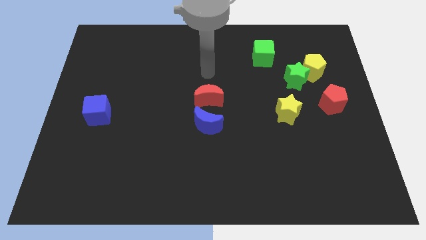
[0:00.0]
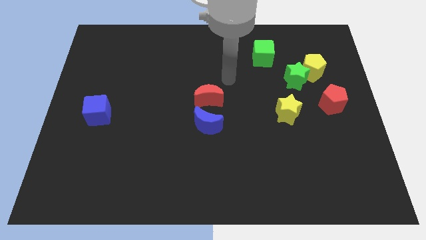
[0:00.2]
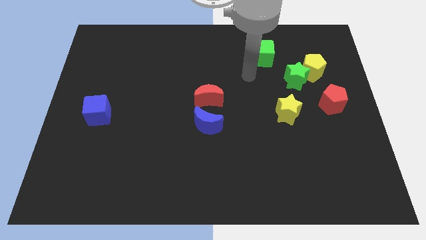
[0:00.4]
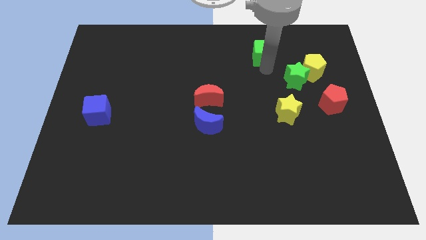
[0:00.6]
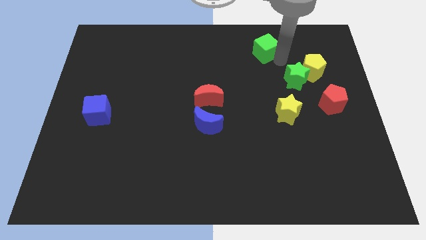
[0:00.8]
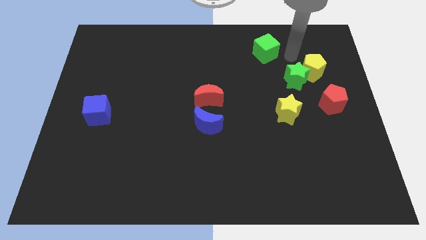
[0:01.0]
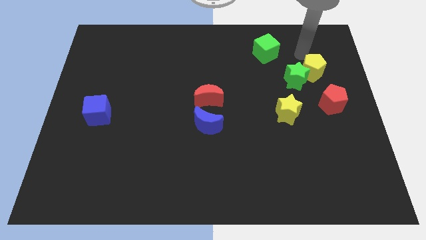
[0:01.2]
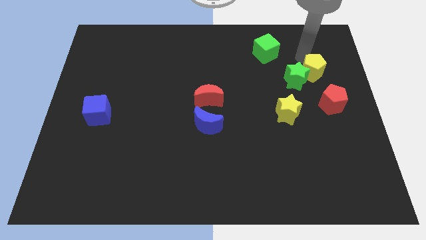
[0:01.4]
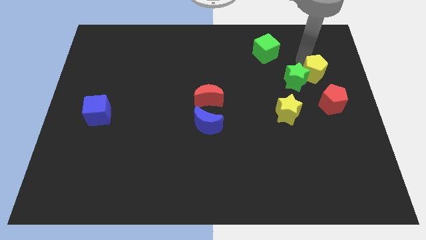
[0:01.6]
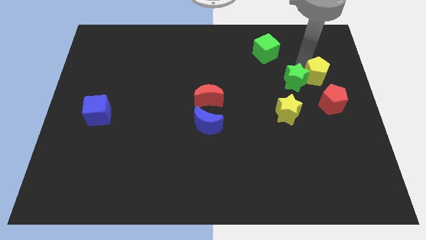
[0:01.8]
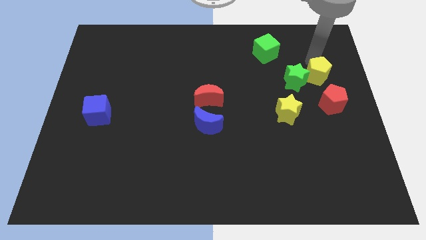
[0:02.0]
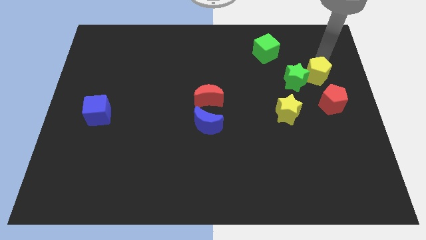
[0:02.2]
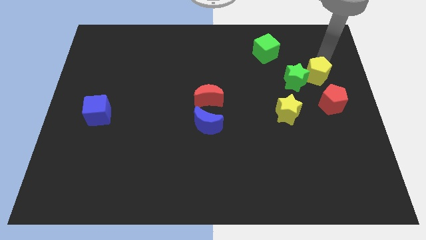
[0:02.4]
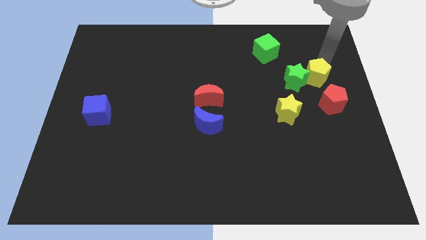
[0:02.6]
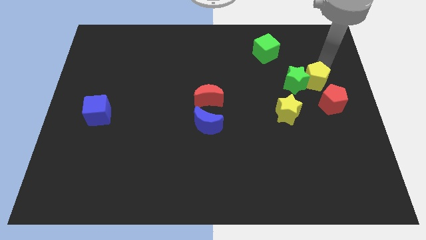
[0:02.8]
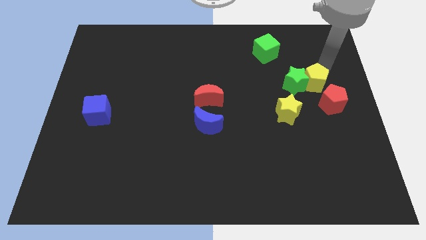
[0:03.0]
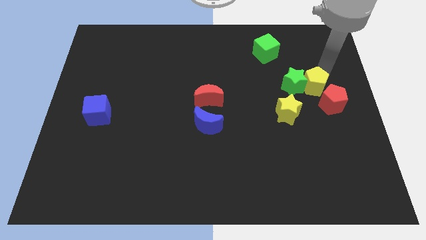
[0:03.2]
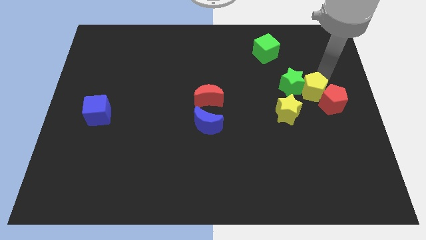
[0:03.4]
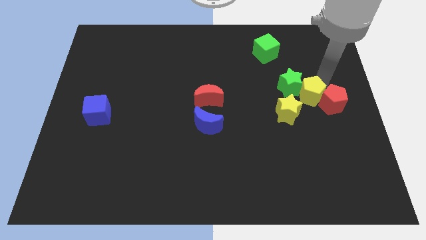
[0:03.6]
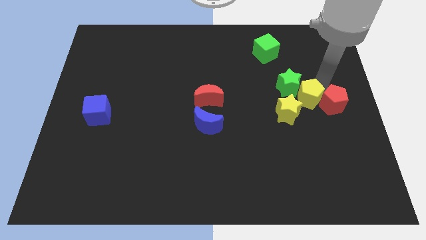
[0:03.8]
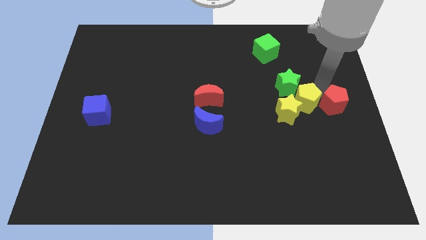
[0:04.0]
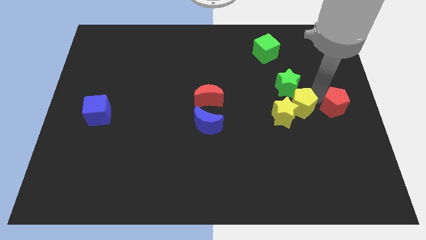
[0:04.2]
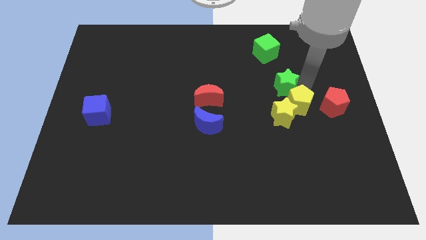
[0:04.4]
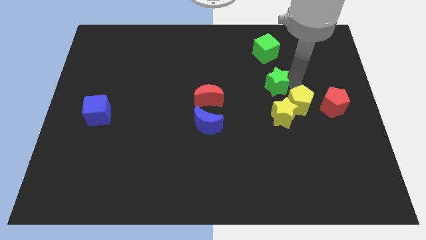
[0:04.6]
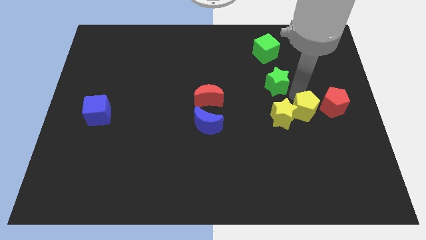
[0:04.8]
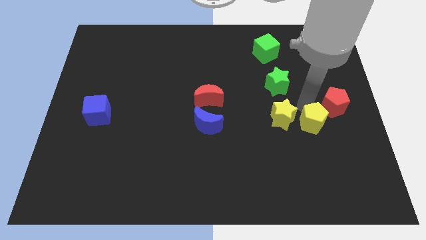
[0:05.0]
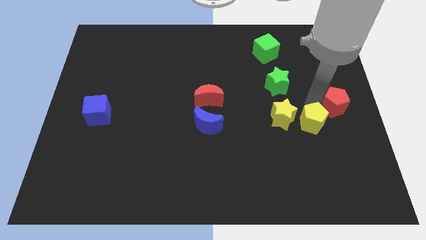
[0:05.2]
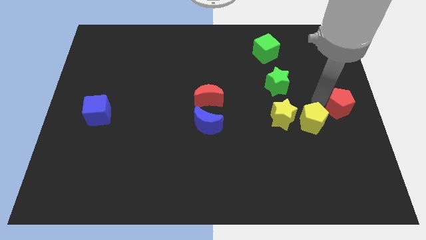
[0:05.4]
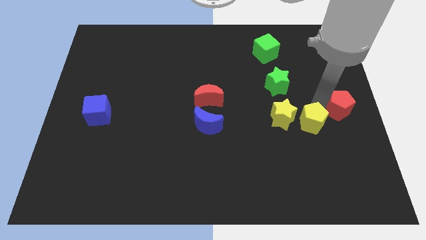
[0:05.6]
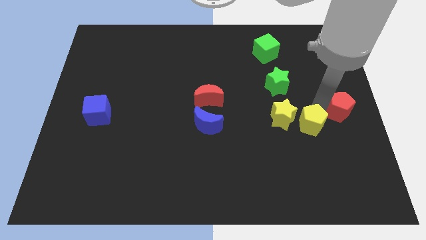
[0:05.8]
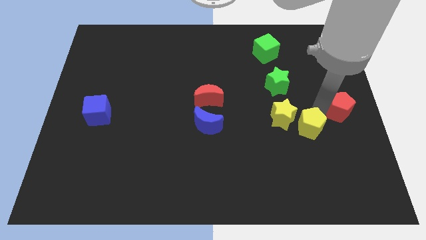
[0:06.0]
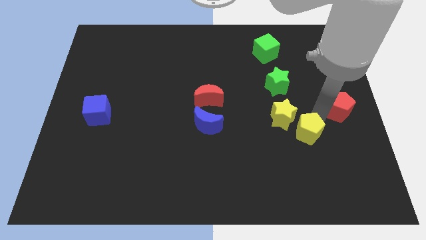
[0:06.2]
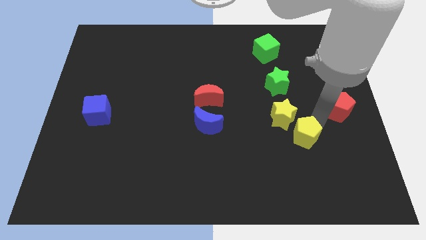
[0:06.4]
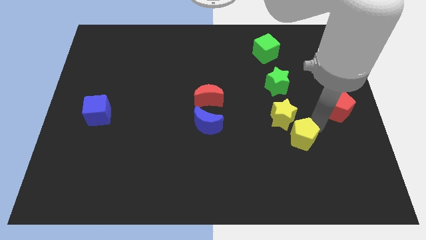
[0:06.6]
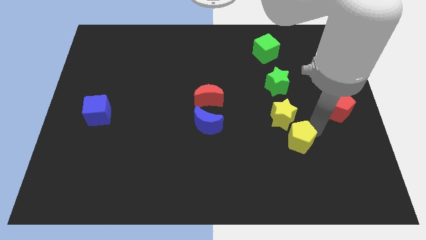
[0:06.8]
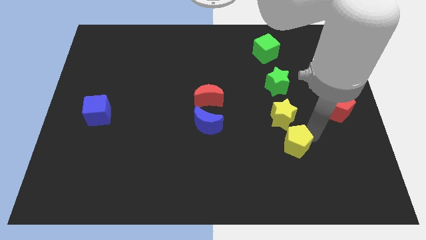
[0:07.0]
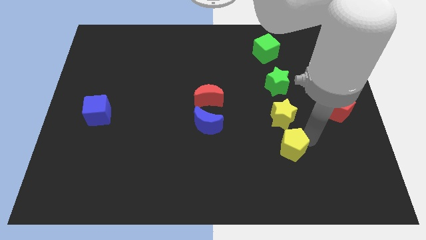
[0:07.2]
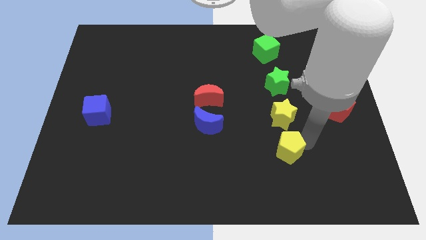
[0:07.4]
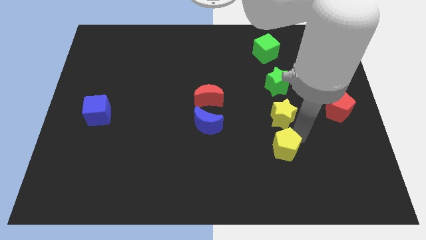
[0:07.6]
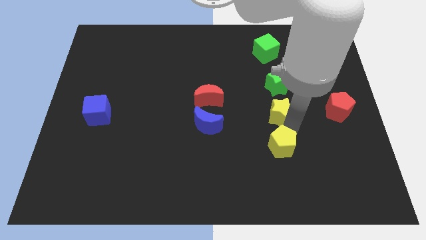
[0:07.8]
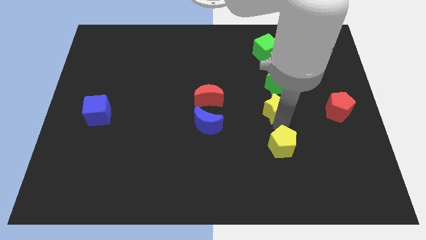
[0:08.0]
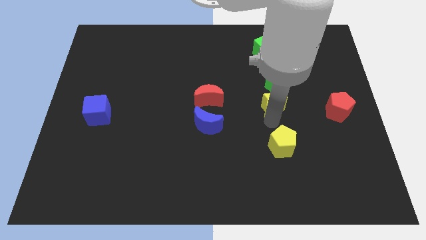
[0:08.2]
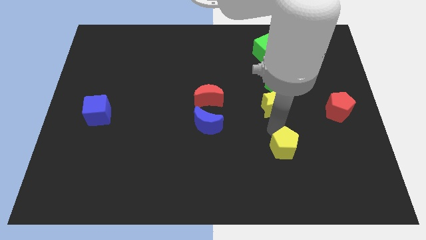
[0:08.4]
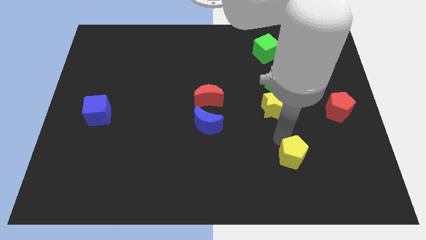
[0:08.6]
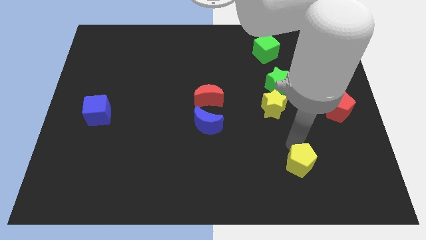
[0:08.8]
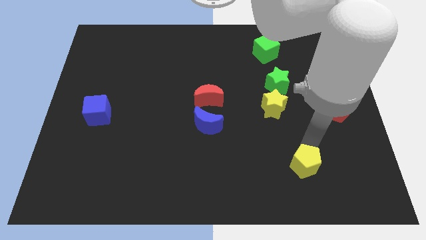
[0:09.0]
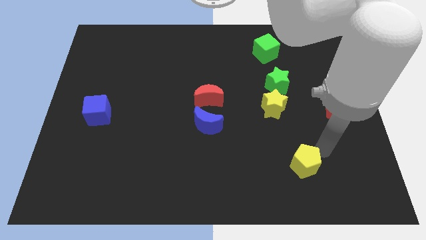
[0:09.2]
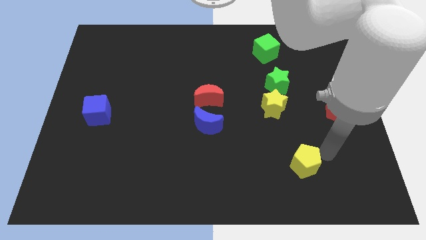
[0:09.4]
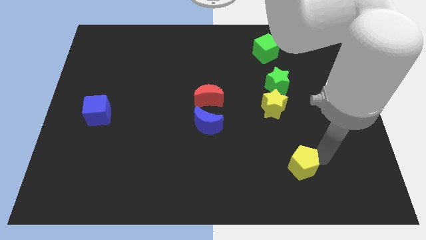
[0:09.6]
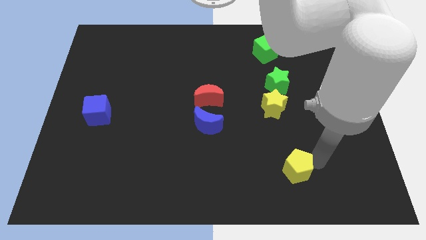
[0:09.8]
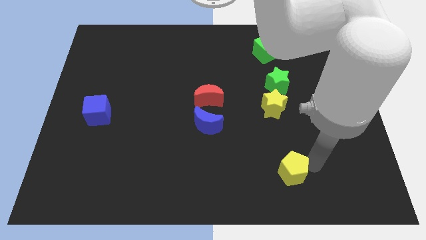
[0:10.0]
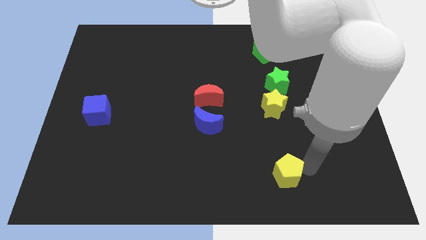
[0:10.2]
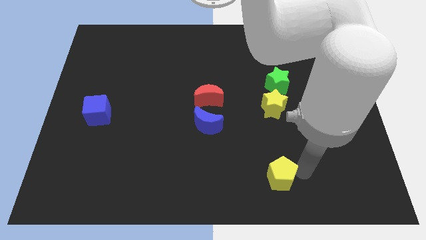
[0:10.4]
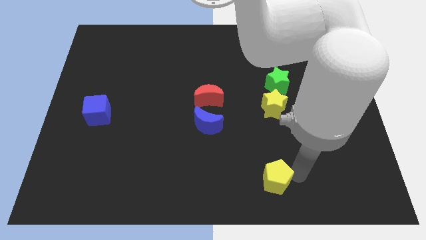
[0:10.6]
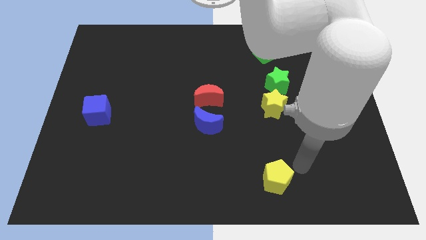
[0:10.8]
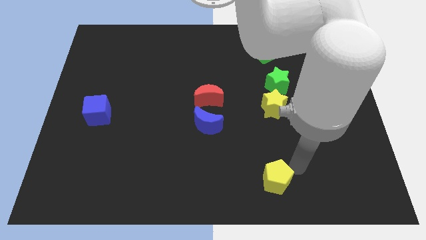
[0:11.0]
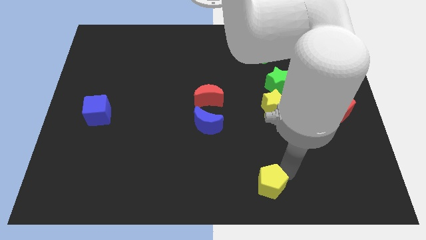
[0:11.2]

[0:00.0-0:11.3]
slide the yellow pentagon to the bottom

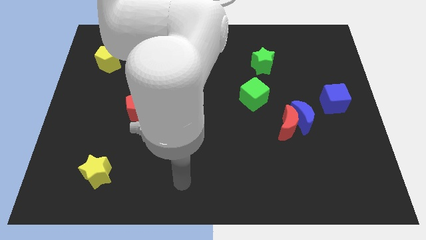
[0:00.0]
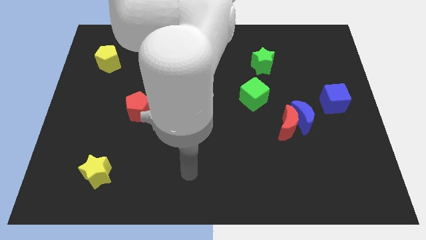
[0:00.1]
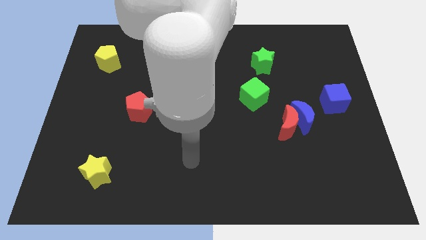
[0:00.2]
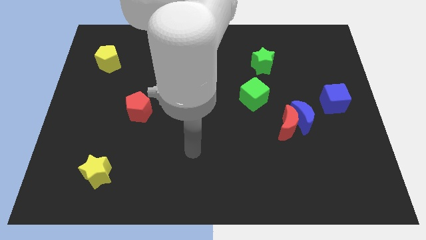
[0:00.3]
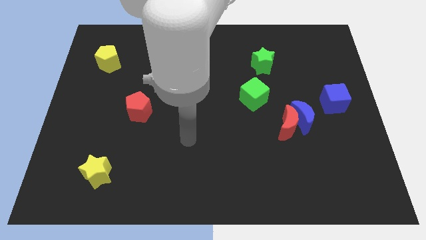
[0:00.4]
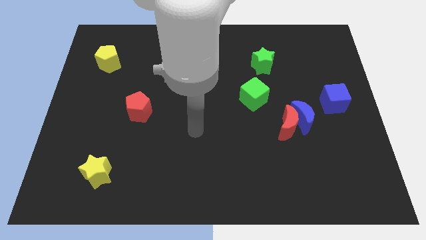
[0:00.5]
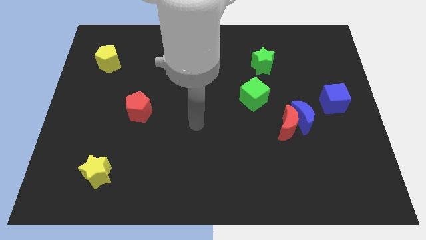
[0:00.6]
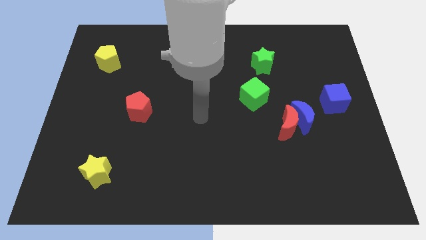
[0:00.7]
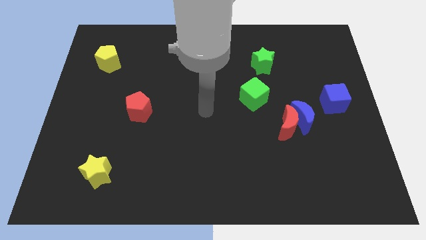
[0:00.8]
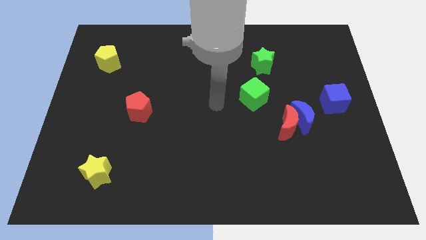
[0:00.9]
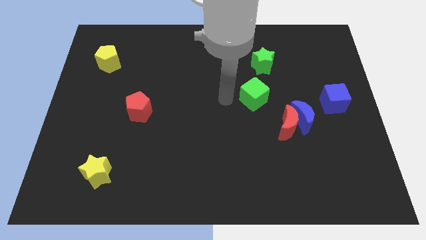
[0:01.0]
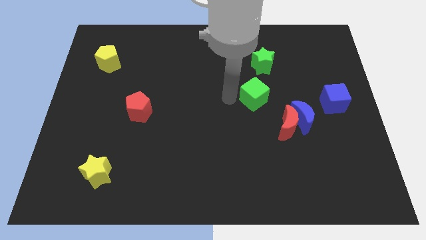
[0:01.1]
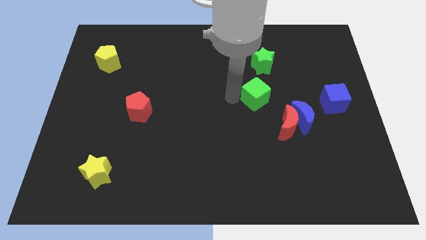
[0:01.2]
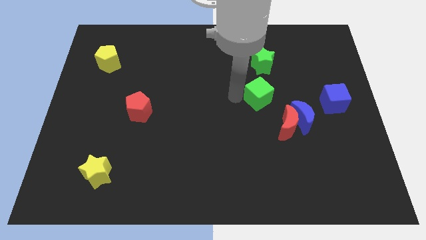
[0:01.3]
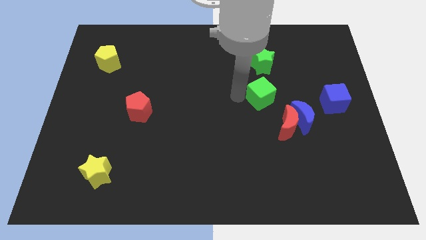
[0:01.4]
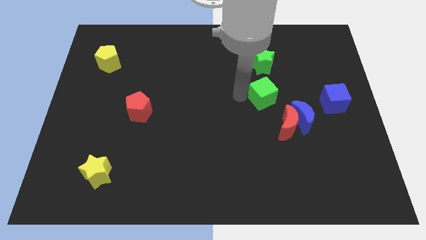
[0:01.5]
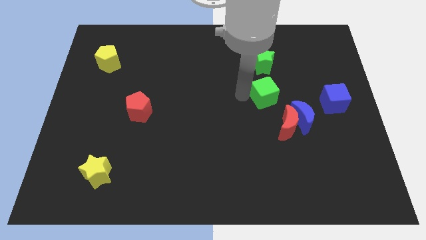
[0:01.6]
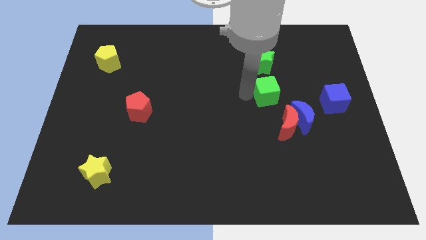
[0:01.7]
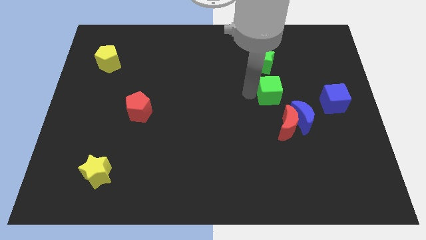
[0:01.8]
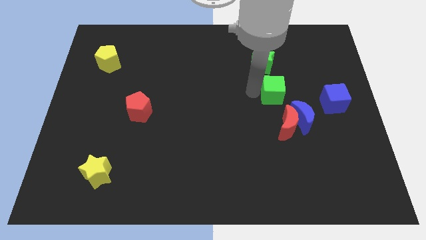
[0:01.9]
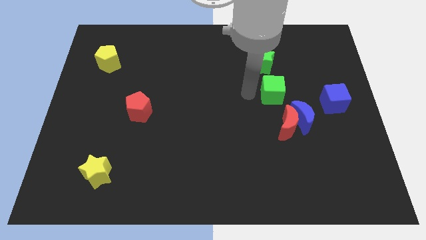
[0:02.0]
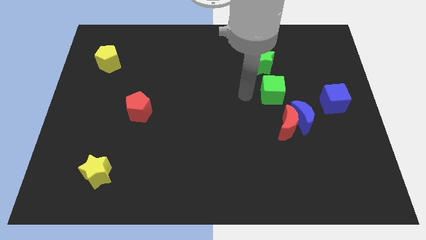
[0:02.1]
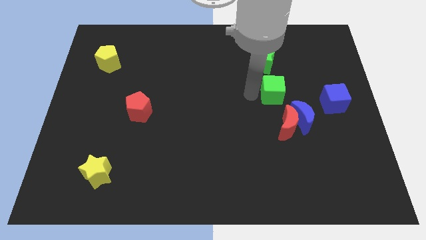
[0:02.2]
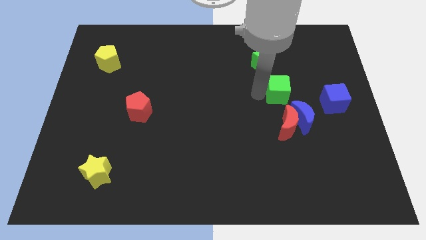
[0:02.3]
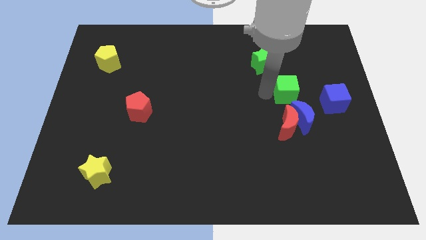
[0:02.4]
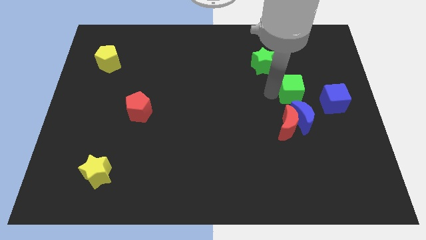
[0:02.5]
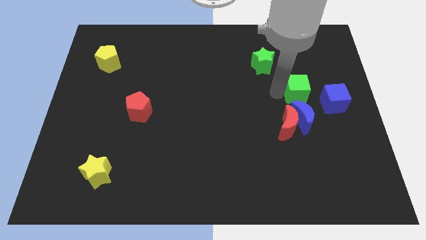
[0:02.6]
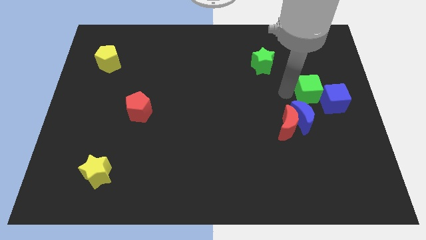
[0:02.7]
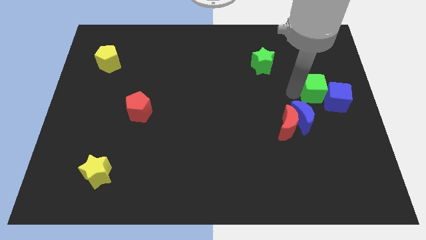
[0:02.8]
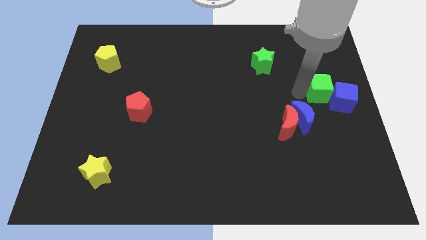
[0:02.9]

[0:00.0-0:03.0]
slide the green cube to the right side of the board
